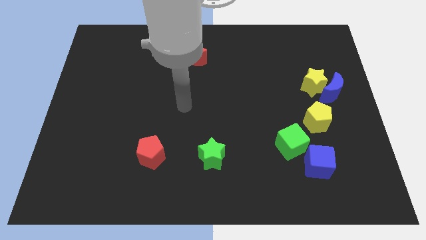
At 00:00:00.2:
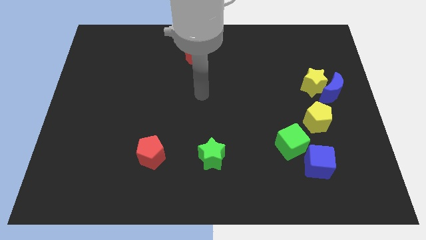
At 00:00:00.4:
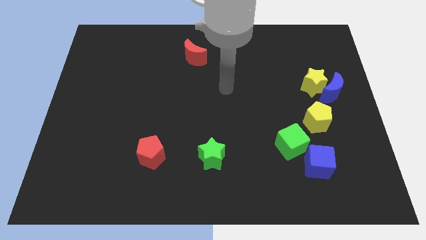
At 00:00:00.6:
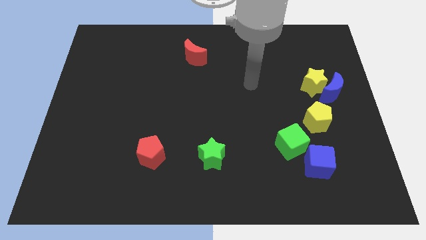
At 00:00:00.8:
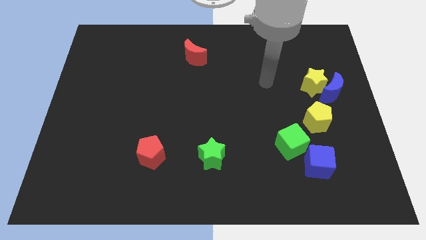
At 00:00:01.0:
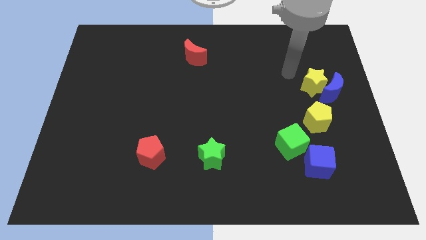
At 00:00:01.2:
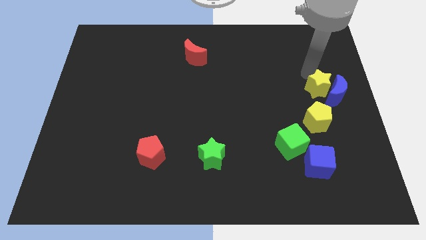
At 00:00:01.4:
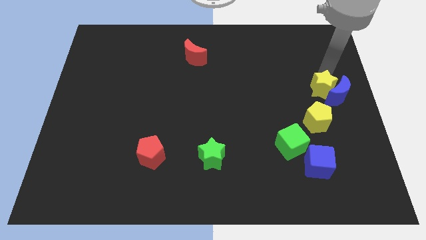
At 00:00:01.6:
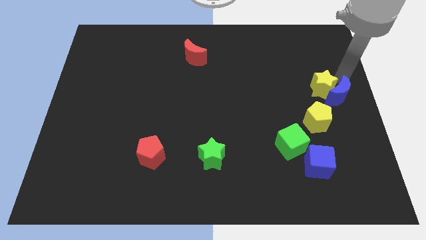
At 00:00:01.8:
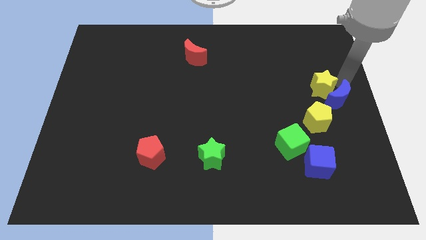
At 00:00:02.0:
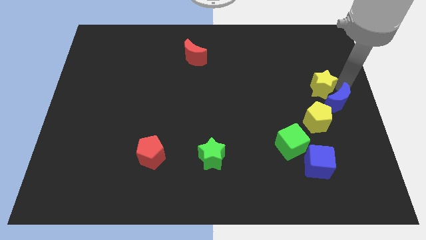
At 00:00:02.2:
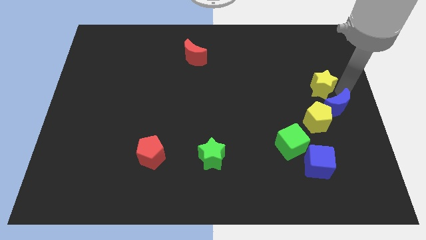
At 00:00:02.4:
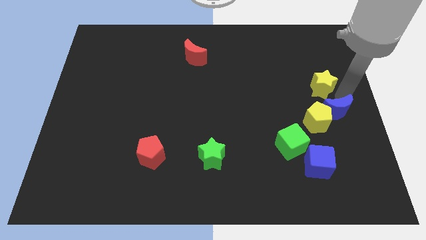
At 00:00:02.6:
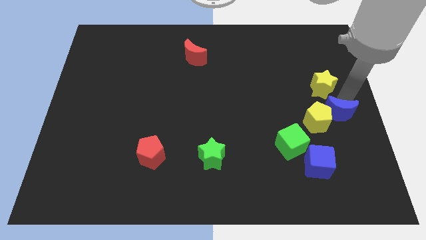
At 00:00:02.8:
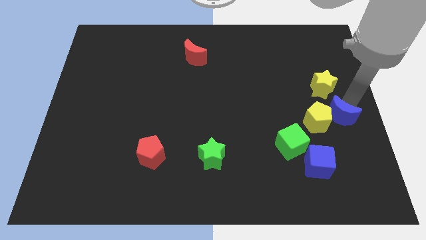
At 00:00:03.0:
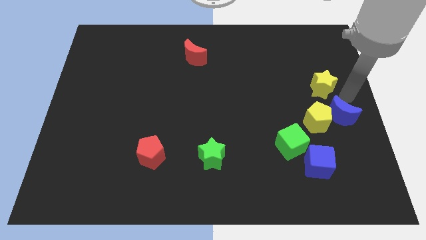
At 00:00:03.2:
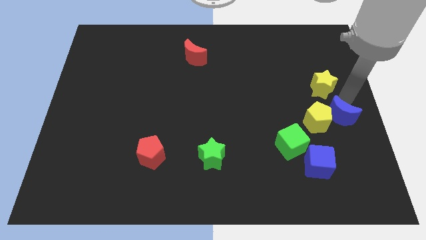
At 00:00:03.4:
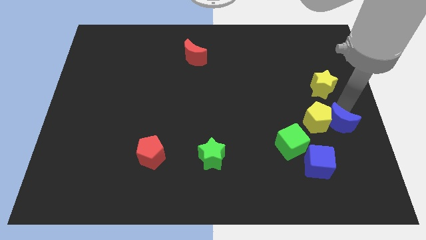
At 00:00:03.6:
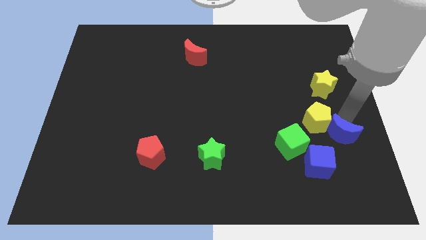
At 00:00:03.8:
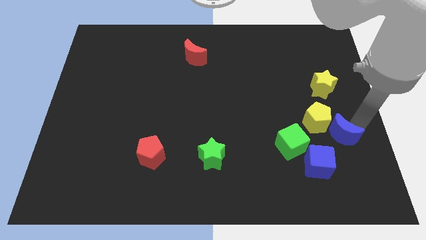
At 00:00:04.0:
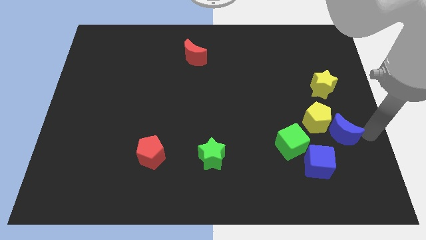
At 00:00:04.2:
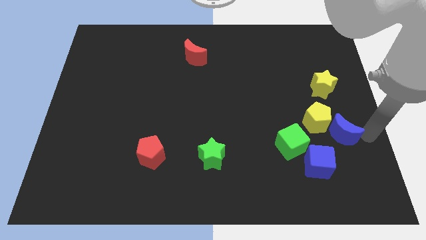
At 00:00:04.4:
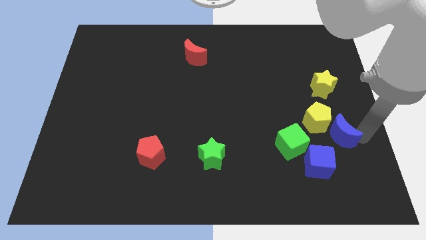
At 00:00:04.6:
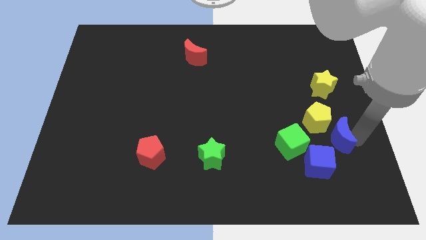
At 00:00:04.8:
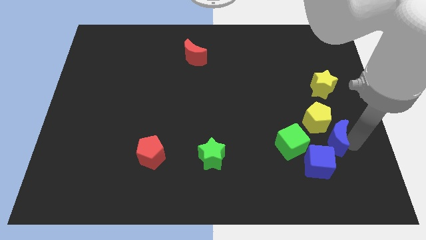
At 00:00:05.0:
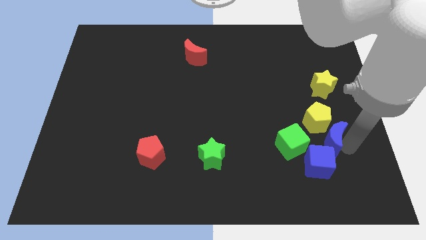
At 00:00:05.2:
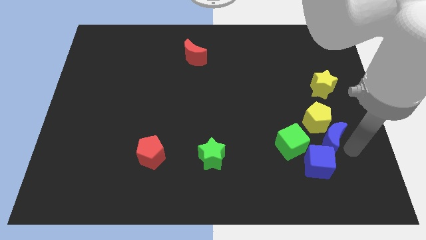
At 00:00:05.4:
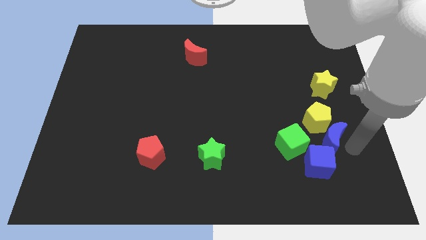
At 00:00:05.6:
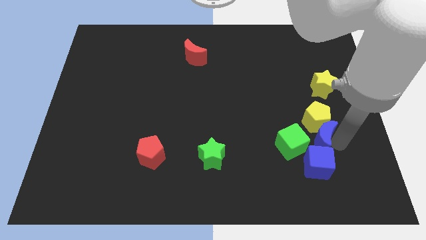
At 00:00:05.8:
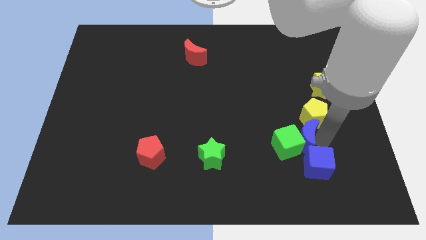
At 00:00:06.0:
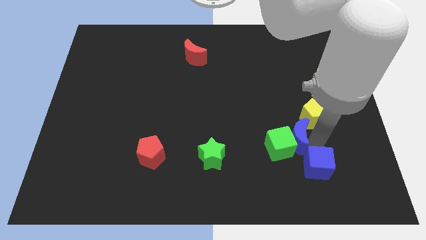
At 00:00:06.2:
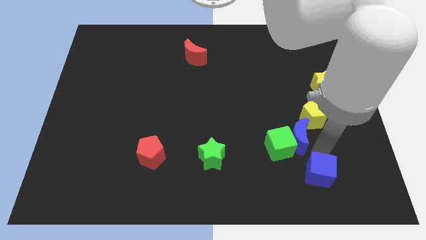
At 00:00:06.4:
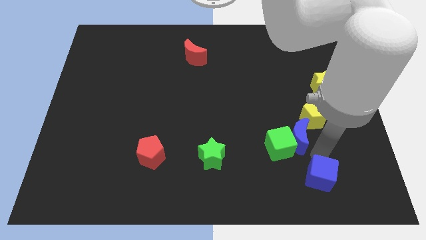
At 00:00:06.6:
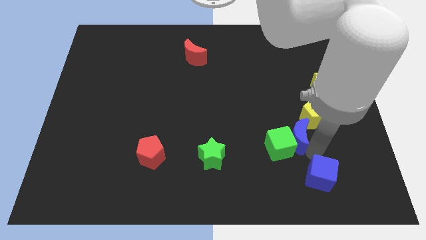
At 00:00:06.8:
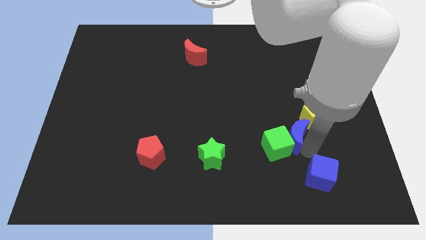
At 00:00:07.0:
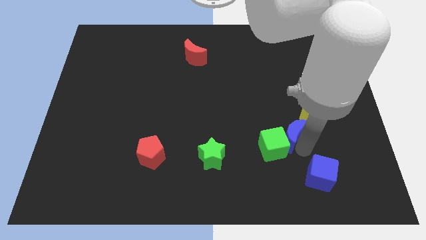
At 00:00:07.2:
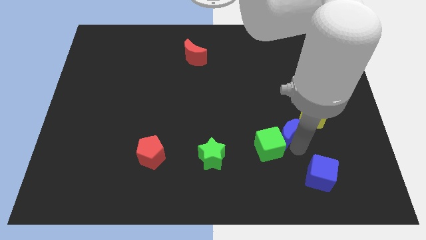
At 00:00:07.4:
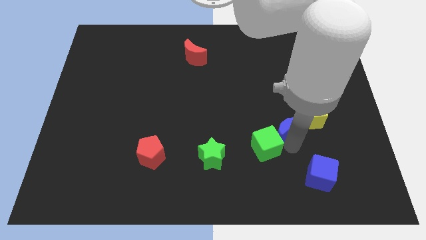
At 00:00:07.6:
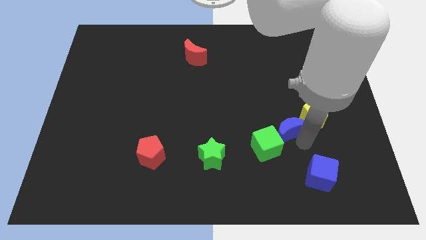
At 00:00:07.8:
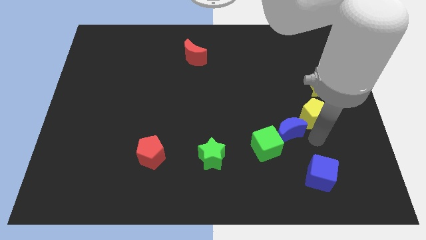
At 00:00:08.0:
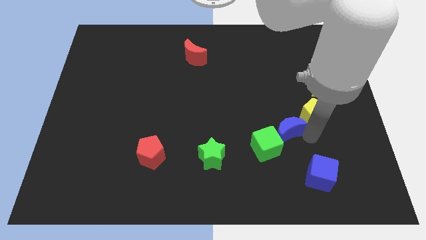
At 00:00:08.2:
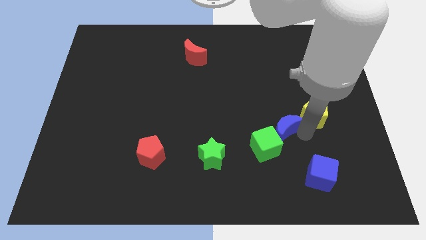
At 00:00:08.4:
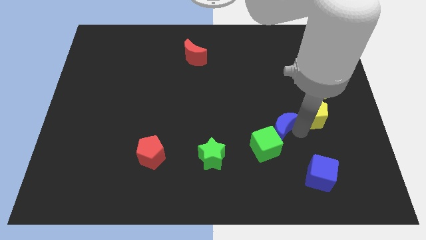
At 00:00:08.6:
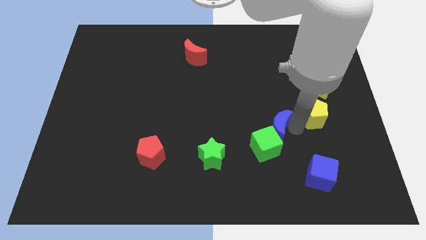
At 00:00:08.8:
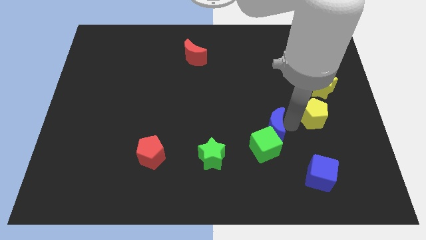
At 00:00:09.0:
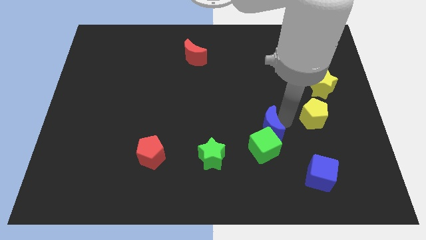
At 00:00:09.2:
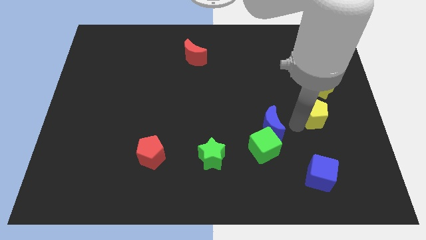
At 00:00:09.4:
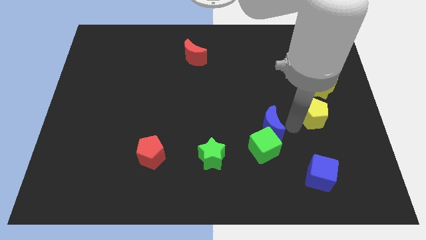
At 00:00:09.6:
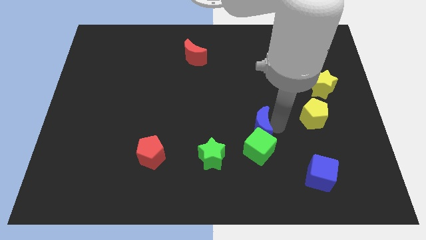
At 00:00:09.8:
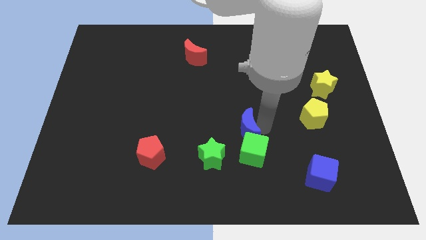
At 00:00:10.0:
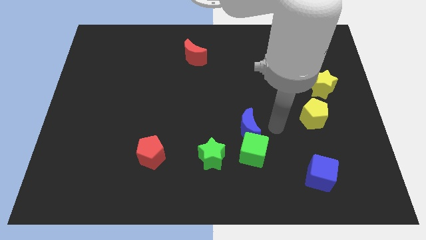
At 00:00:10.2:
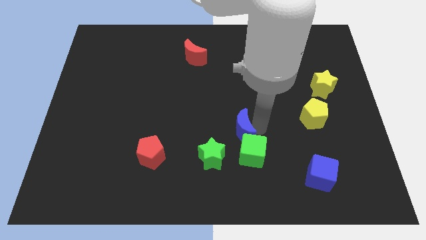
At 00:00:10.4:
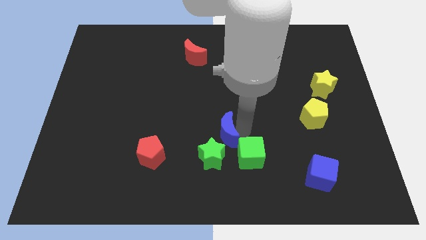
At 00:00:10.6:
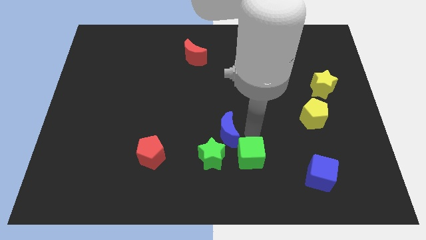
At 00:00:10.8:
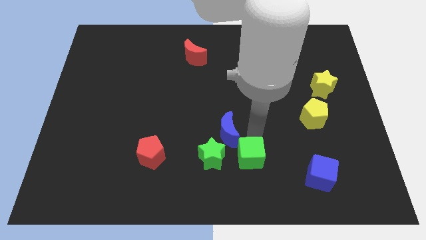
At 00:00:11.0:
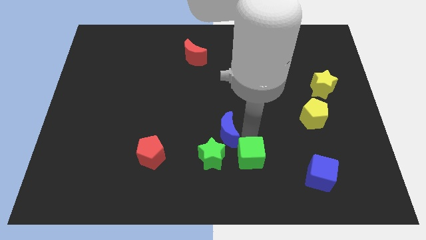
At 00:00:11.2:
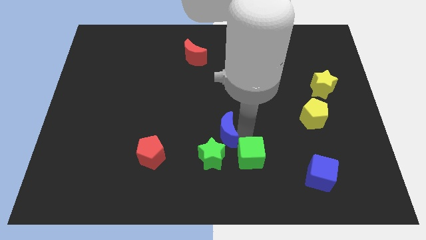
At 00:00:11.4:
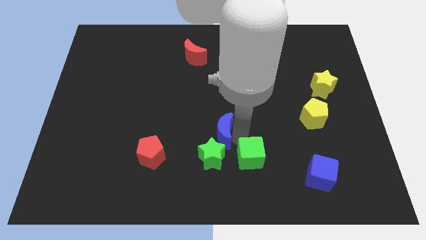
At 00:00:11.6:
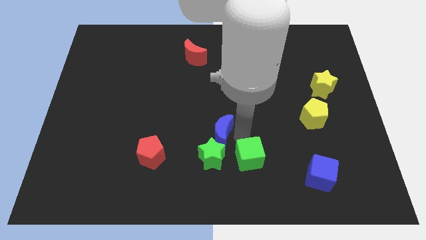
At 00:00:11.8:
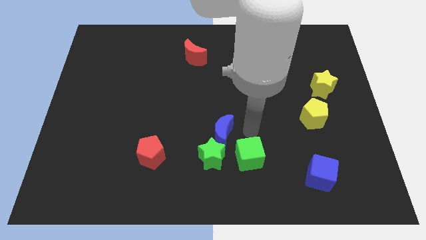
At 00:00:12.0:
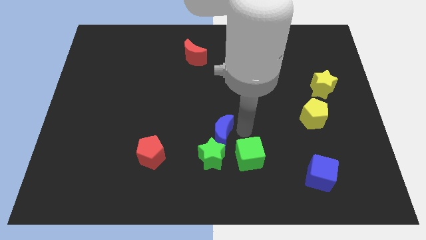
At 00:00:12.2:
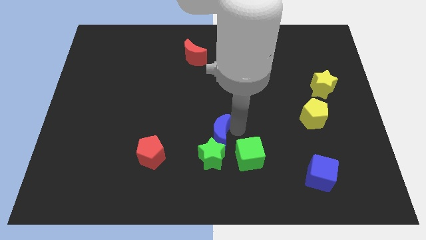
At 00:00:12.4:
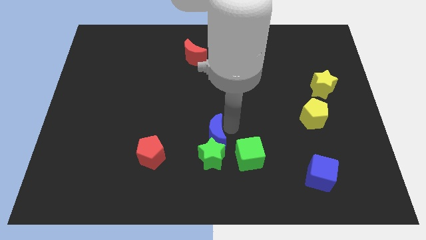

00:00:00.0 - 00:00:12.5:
push the blue moon to the top left side of the green star
